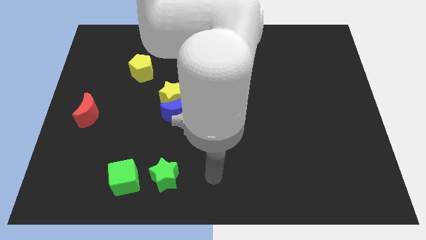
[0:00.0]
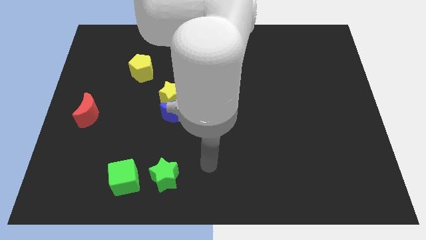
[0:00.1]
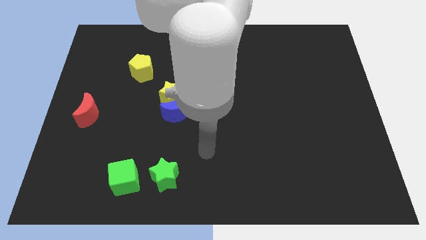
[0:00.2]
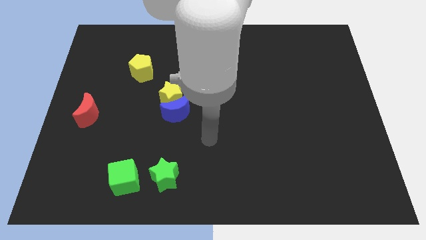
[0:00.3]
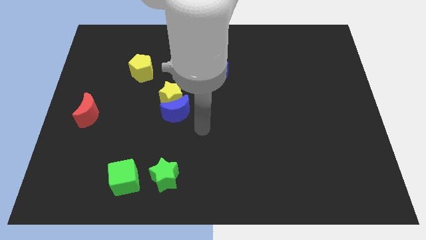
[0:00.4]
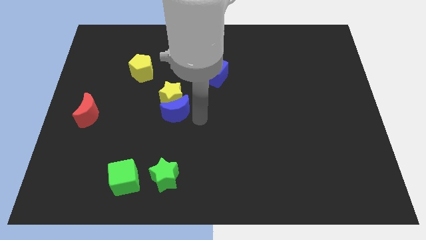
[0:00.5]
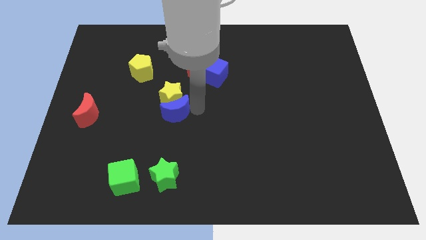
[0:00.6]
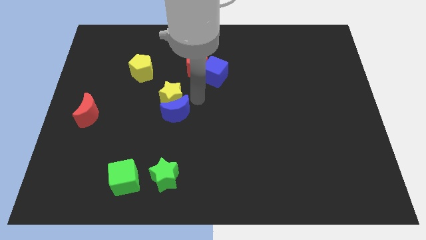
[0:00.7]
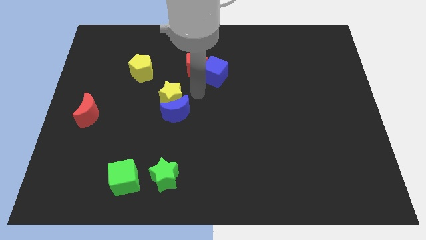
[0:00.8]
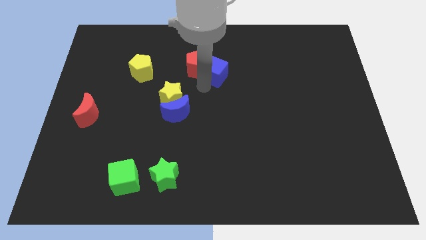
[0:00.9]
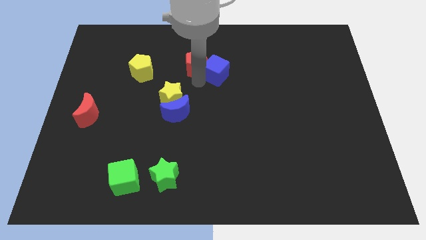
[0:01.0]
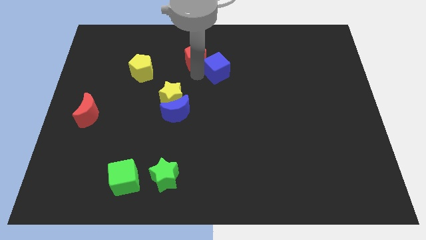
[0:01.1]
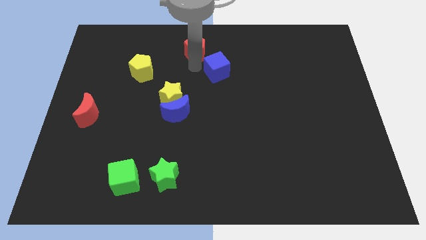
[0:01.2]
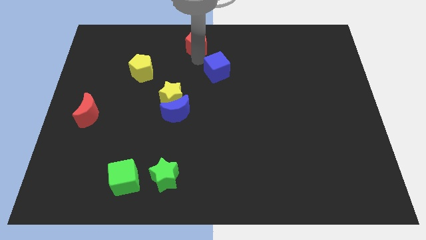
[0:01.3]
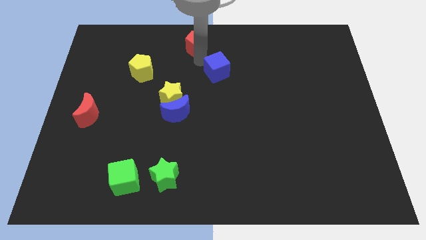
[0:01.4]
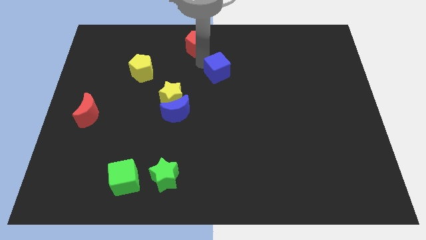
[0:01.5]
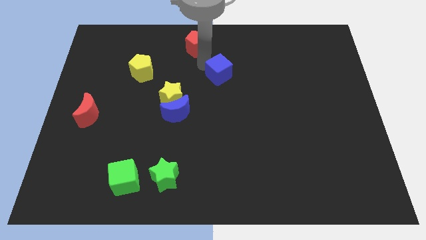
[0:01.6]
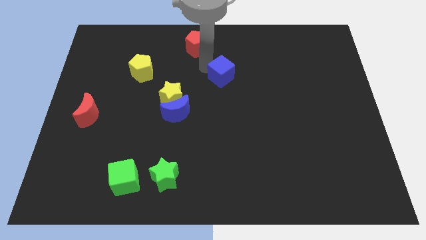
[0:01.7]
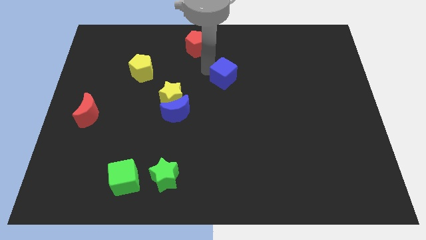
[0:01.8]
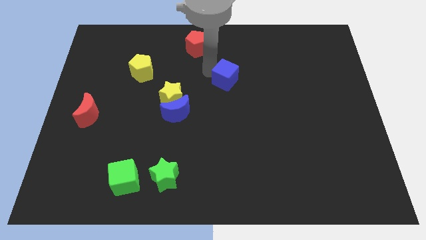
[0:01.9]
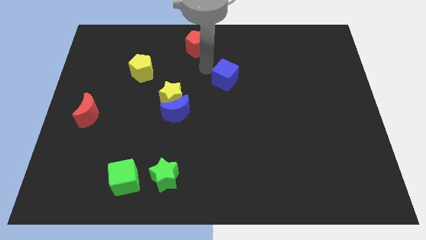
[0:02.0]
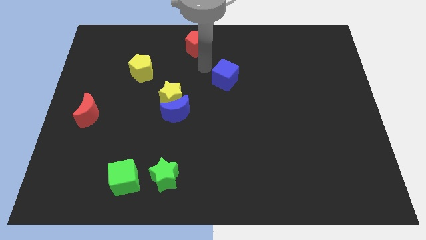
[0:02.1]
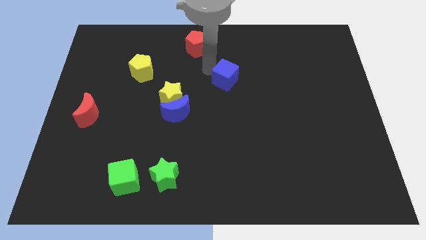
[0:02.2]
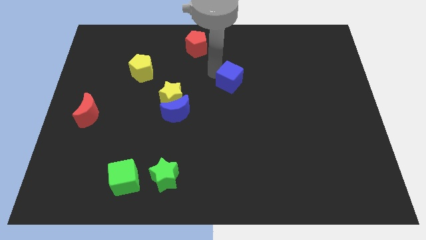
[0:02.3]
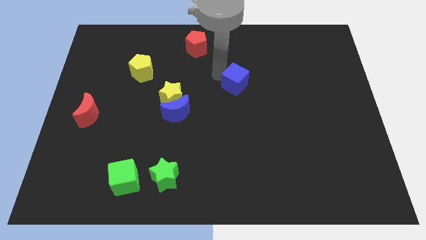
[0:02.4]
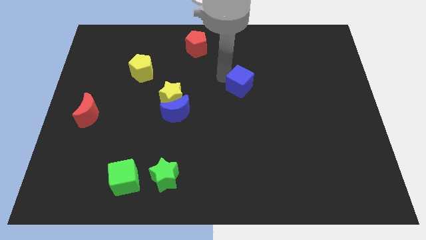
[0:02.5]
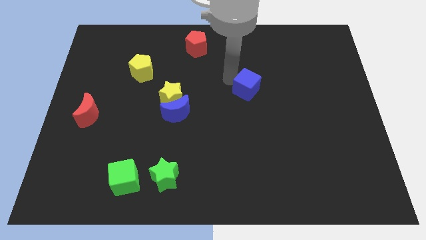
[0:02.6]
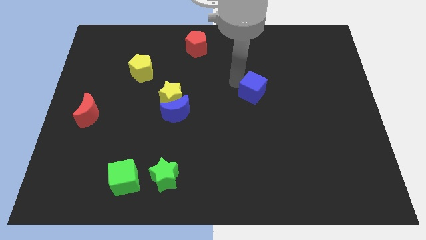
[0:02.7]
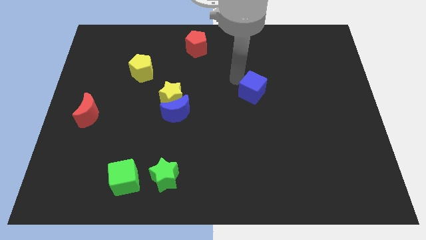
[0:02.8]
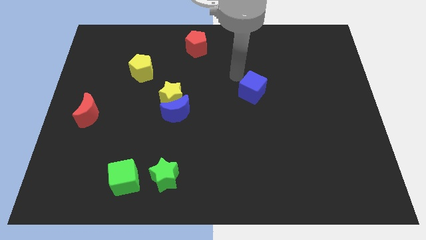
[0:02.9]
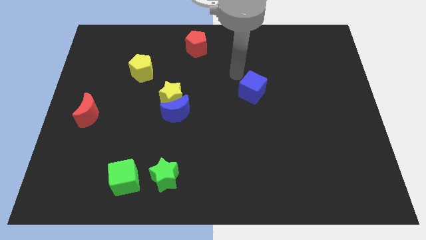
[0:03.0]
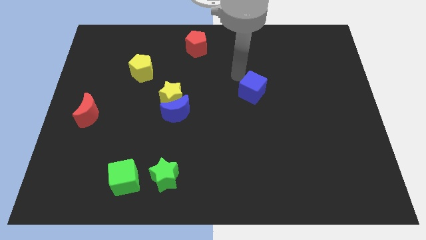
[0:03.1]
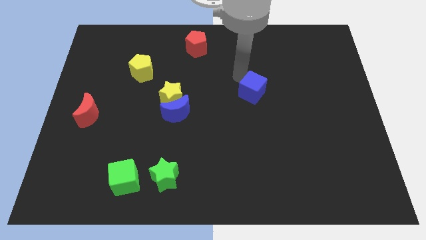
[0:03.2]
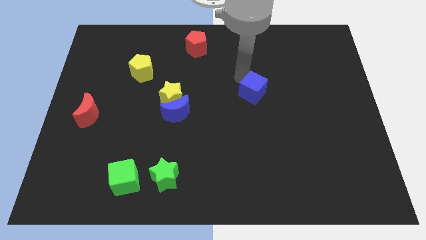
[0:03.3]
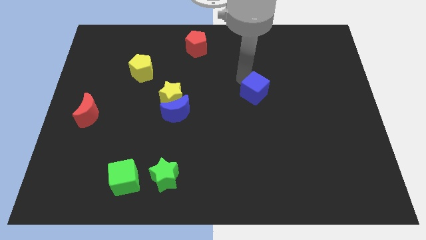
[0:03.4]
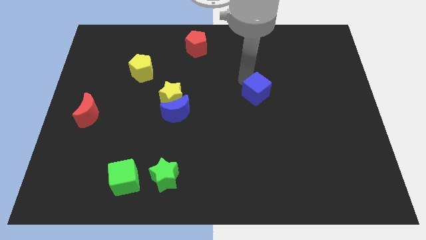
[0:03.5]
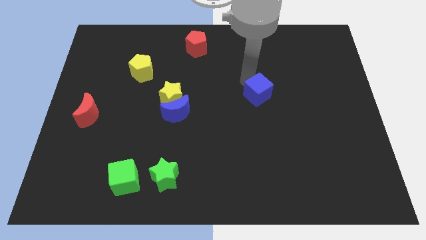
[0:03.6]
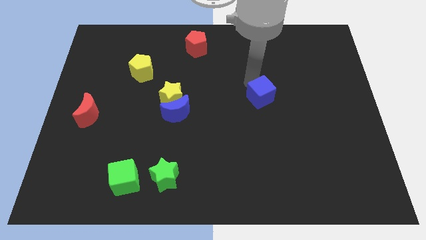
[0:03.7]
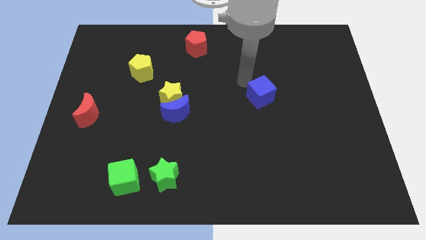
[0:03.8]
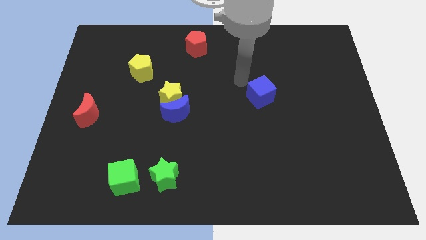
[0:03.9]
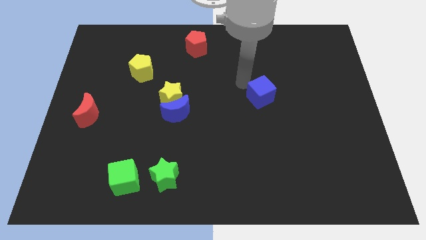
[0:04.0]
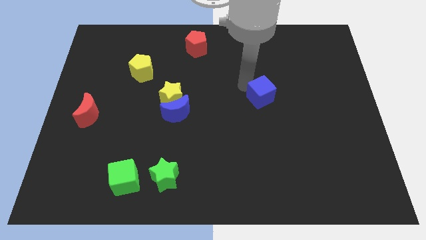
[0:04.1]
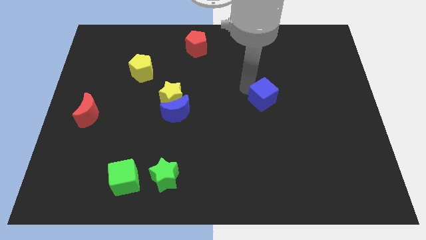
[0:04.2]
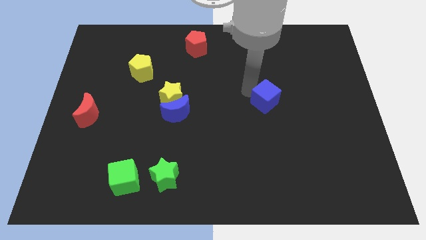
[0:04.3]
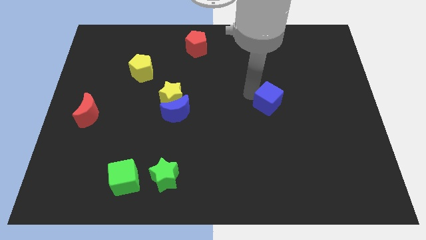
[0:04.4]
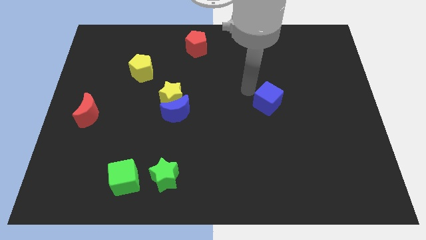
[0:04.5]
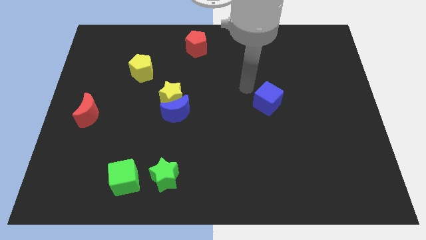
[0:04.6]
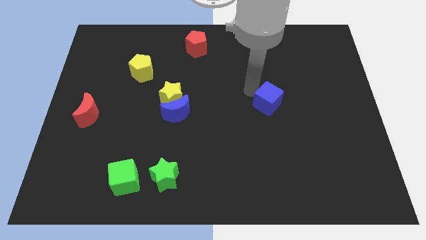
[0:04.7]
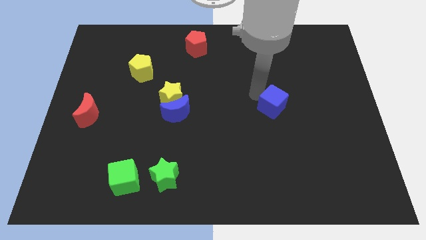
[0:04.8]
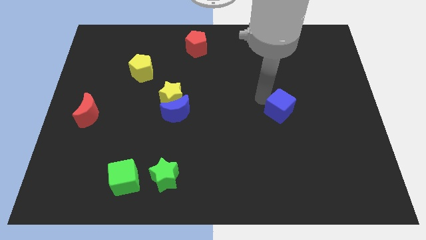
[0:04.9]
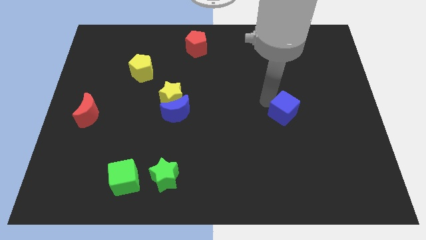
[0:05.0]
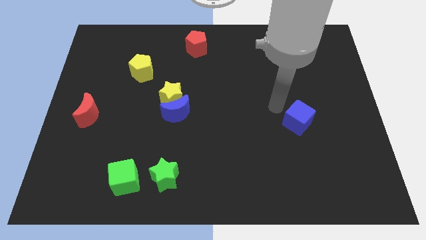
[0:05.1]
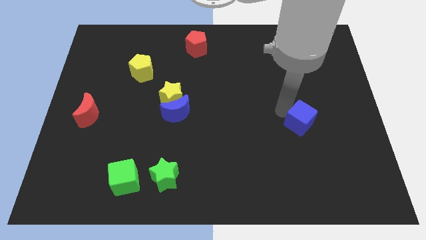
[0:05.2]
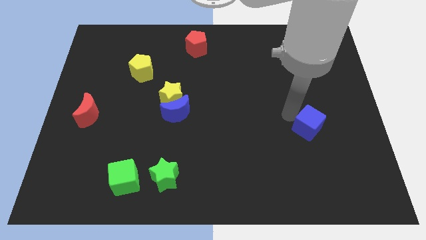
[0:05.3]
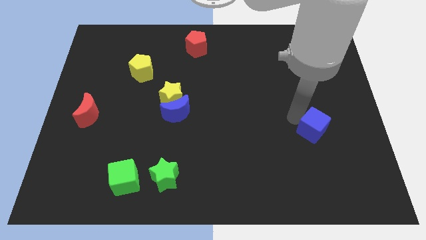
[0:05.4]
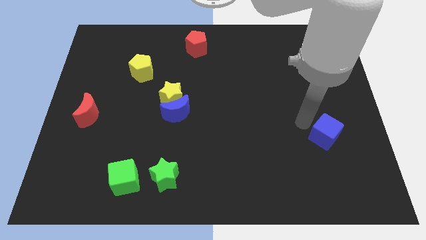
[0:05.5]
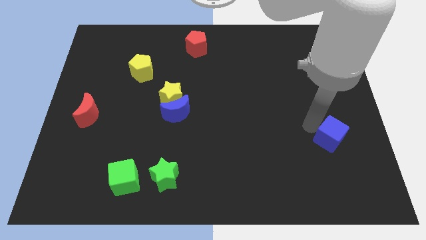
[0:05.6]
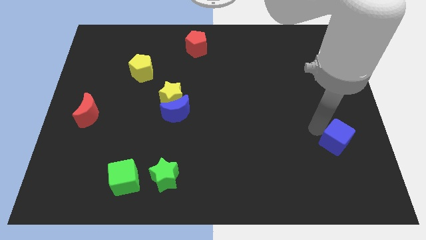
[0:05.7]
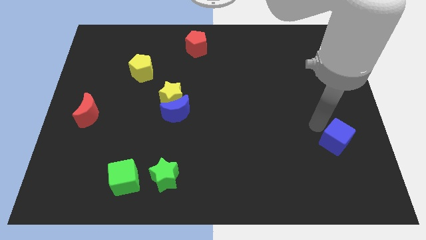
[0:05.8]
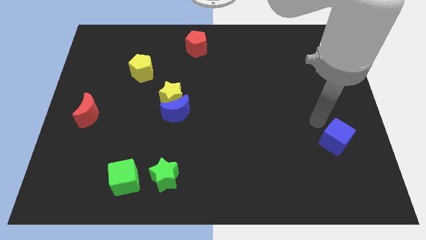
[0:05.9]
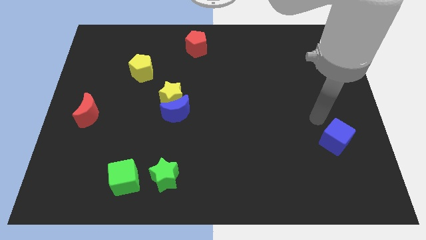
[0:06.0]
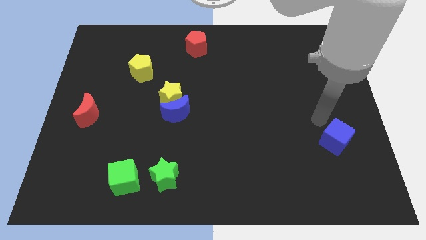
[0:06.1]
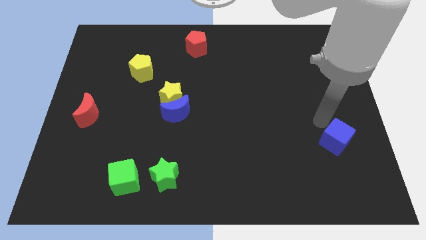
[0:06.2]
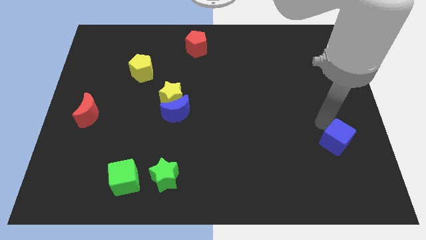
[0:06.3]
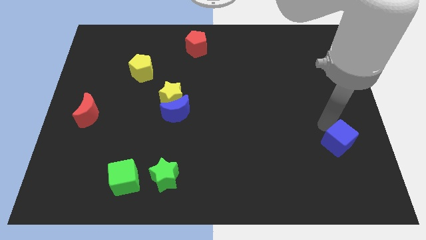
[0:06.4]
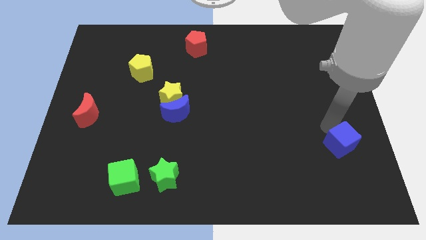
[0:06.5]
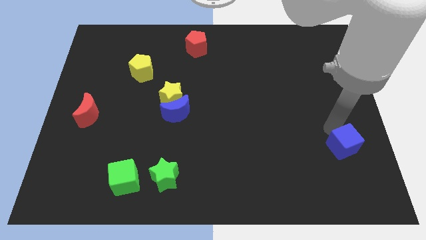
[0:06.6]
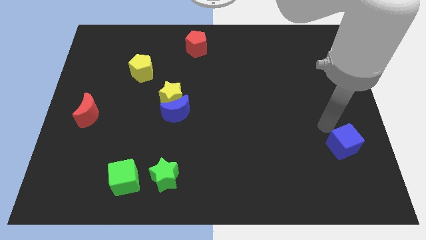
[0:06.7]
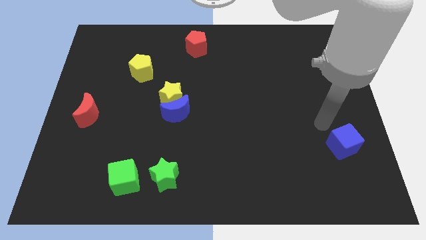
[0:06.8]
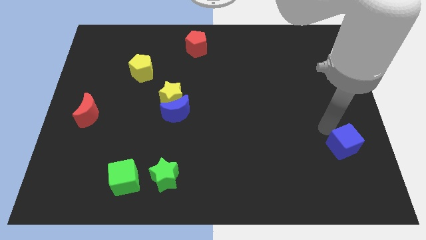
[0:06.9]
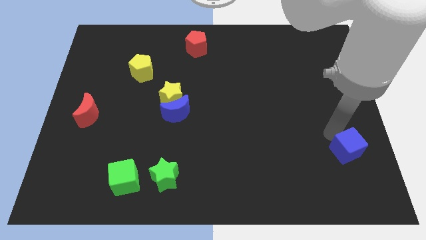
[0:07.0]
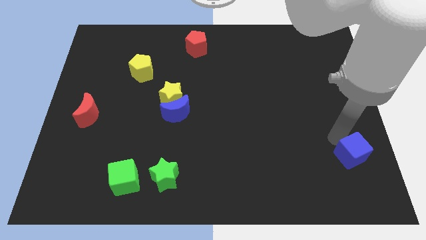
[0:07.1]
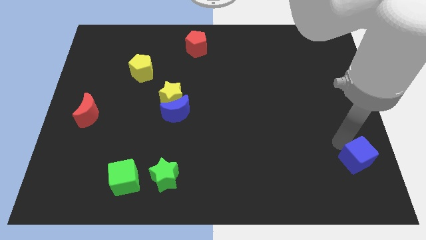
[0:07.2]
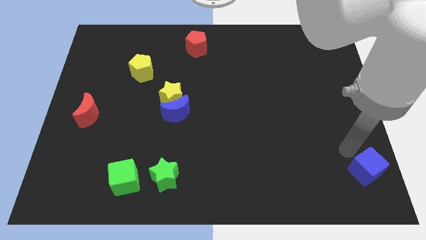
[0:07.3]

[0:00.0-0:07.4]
put the blue cube to the lower right corner
